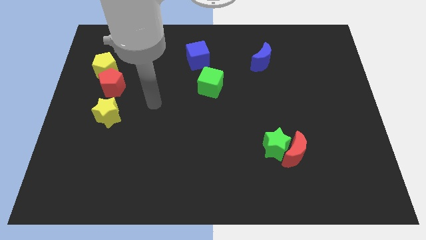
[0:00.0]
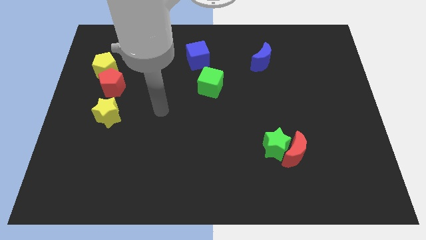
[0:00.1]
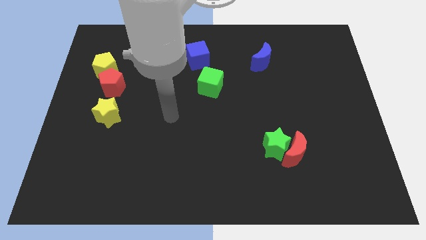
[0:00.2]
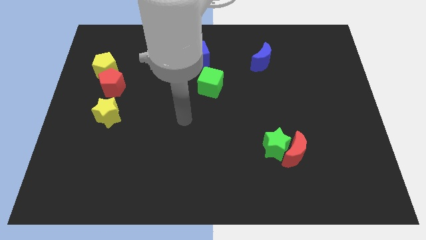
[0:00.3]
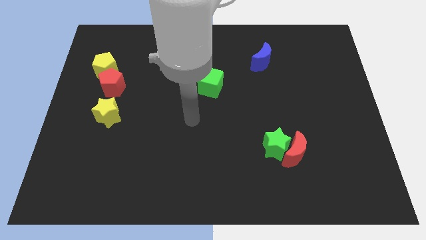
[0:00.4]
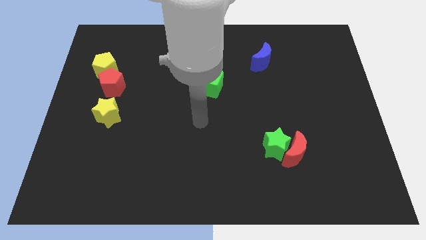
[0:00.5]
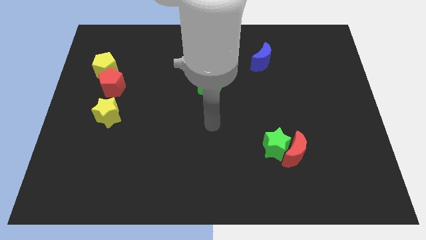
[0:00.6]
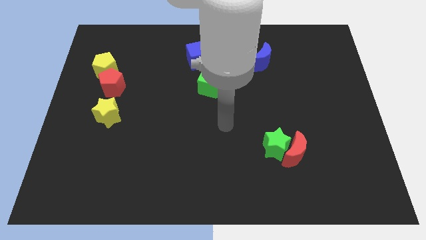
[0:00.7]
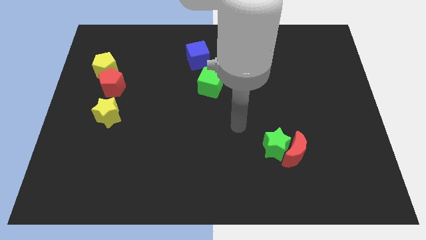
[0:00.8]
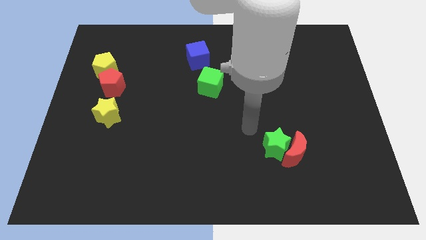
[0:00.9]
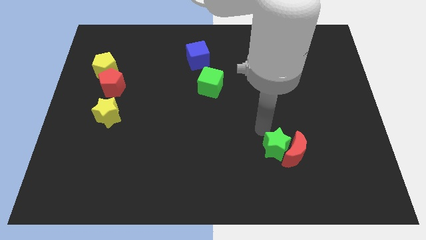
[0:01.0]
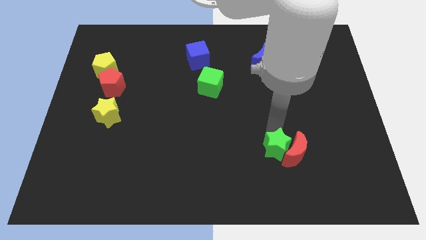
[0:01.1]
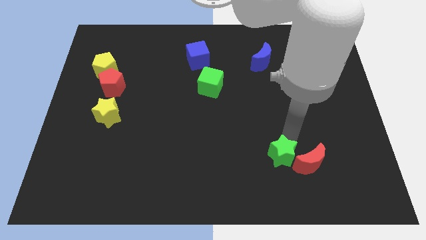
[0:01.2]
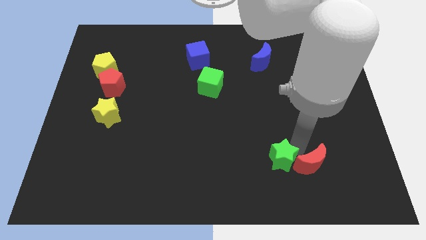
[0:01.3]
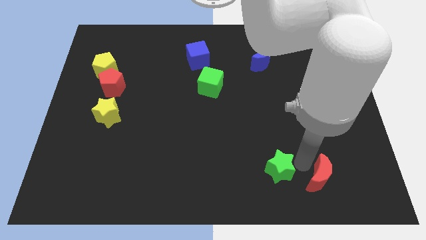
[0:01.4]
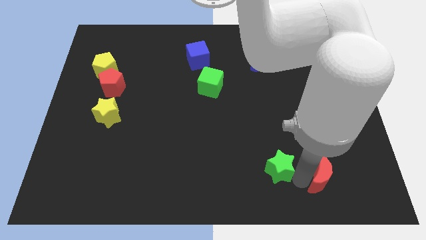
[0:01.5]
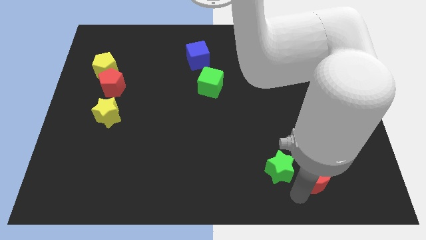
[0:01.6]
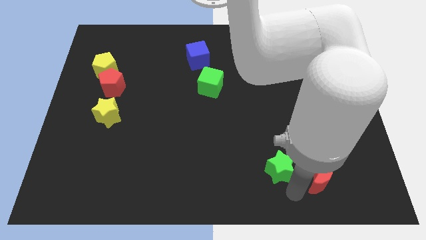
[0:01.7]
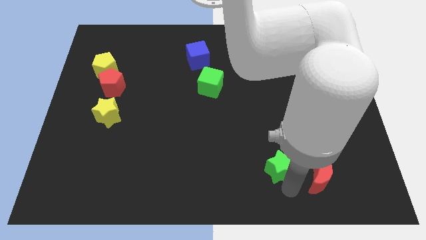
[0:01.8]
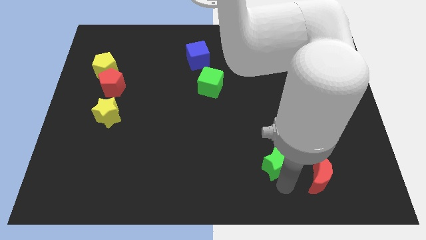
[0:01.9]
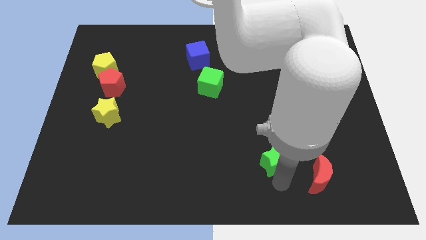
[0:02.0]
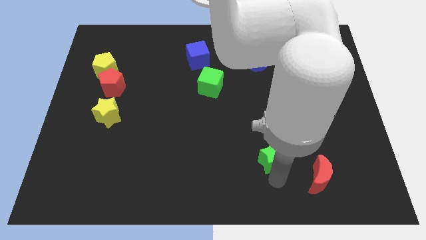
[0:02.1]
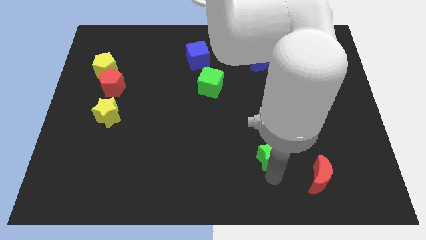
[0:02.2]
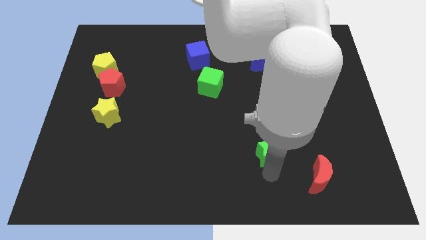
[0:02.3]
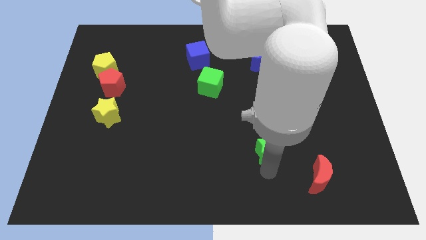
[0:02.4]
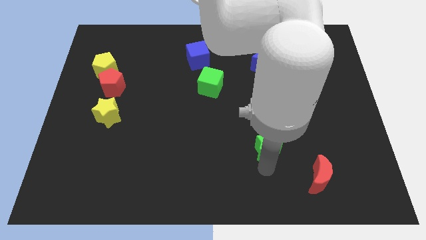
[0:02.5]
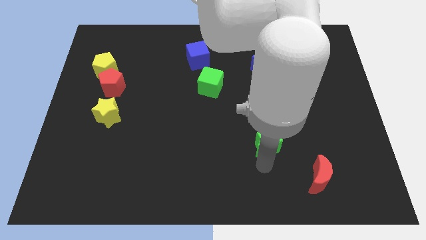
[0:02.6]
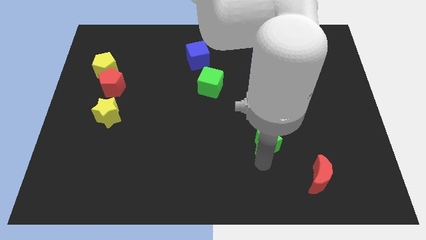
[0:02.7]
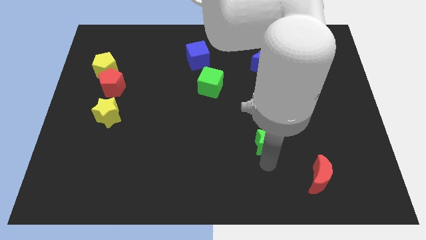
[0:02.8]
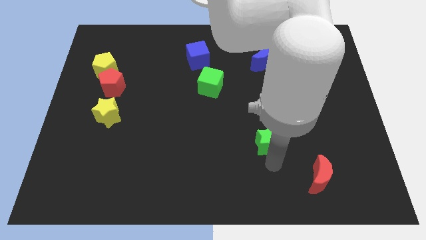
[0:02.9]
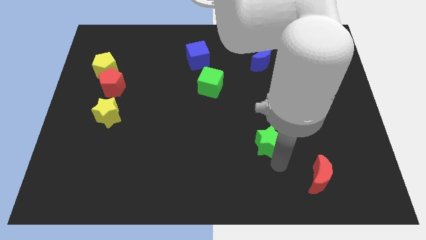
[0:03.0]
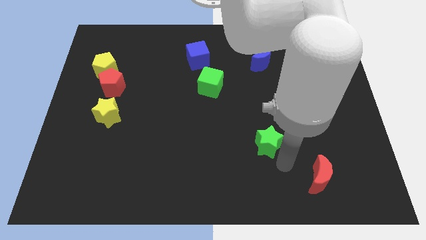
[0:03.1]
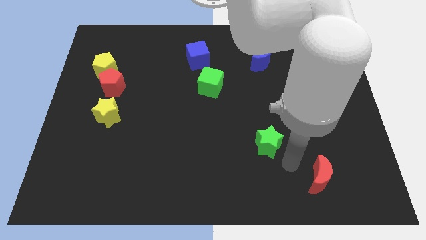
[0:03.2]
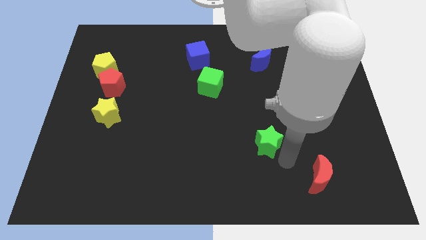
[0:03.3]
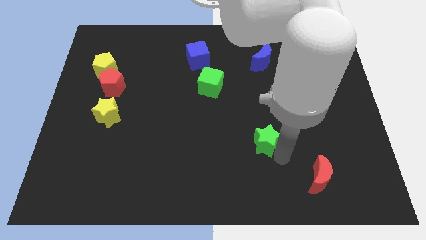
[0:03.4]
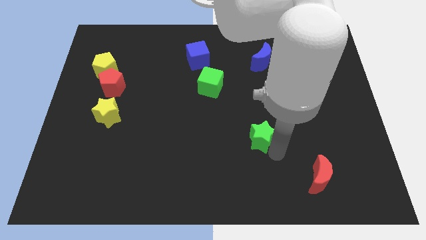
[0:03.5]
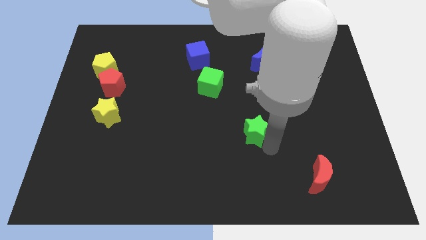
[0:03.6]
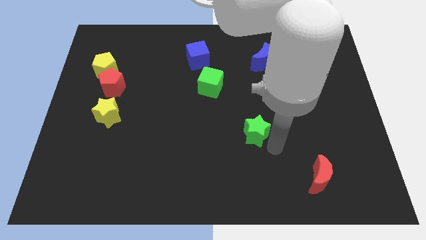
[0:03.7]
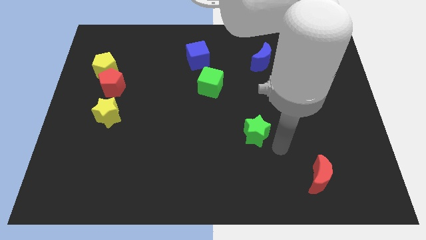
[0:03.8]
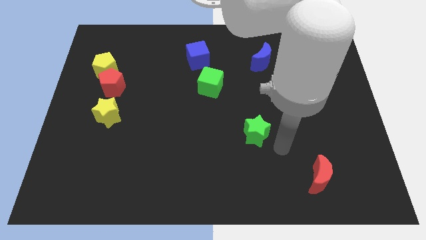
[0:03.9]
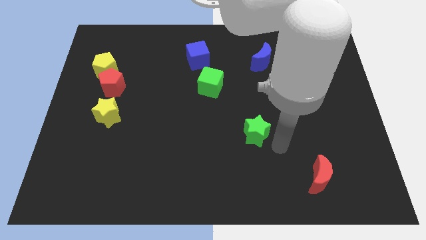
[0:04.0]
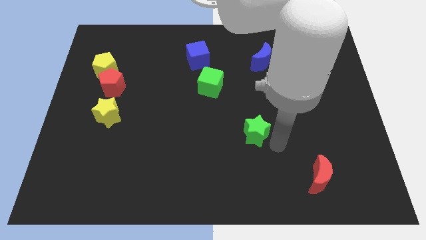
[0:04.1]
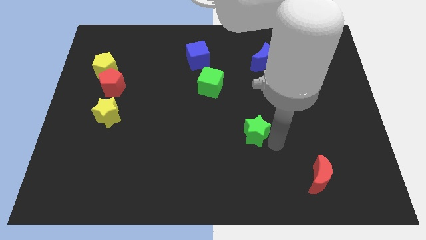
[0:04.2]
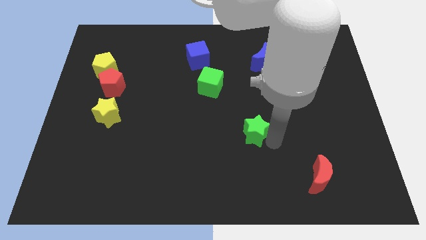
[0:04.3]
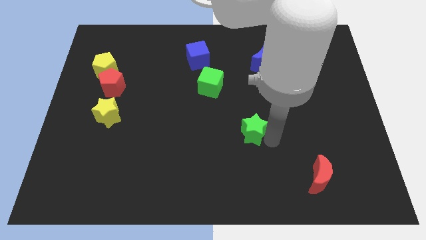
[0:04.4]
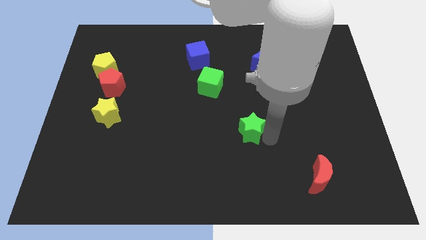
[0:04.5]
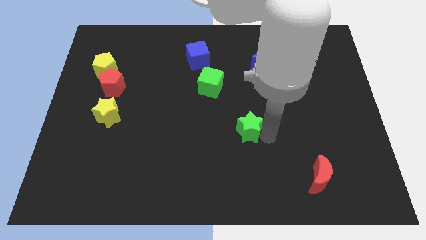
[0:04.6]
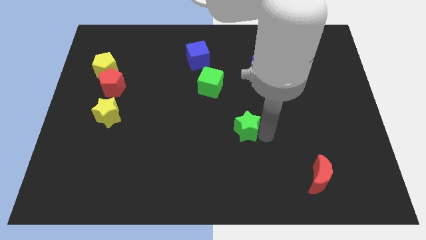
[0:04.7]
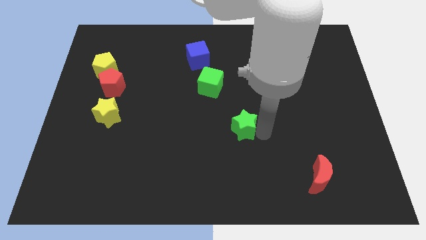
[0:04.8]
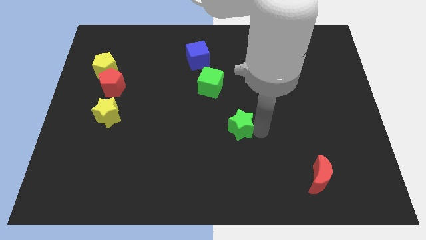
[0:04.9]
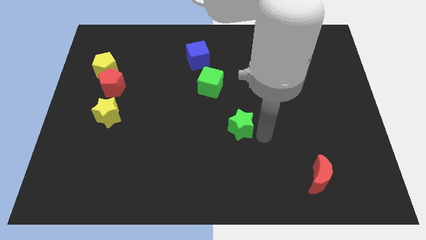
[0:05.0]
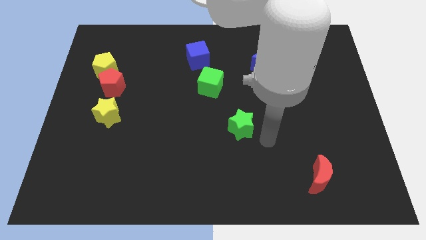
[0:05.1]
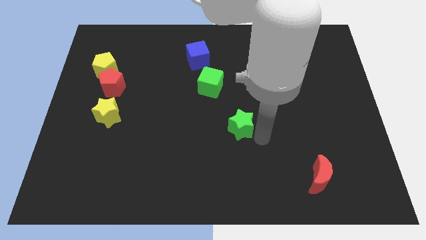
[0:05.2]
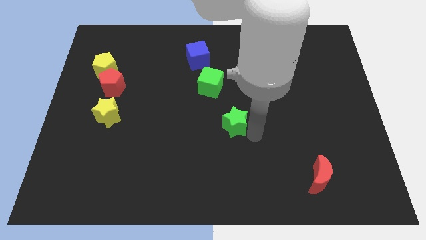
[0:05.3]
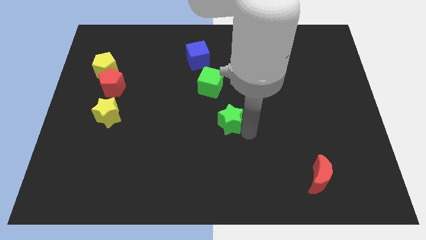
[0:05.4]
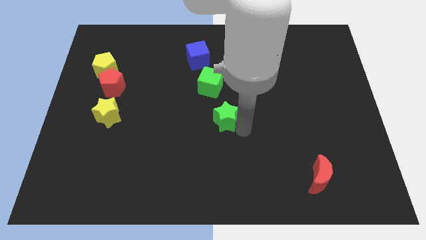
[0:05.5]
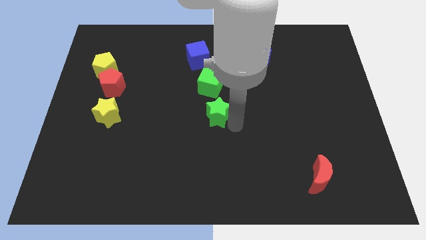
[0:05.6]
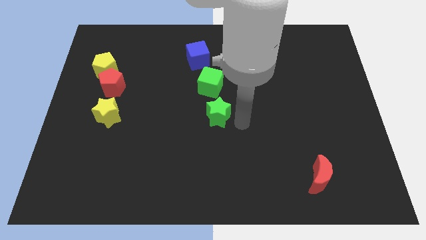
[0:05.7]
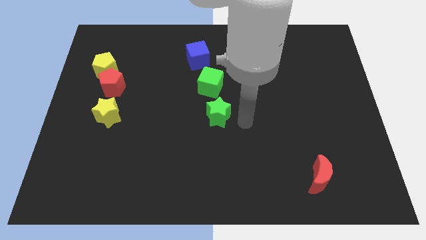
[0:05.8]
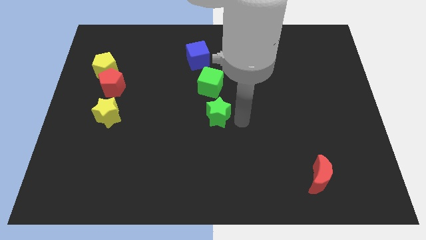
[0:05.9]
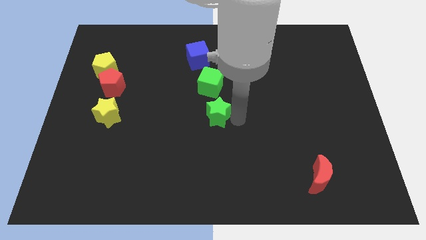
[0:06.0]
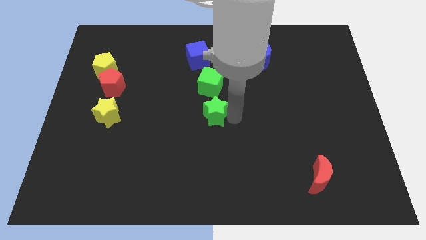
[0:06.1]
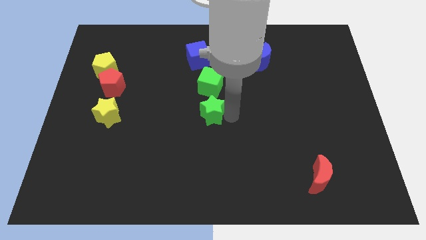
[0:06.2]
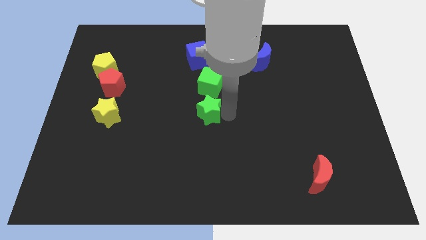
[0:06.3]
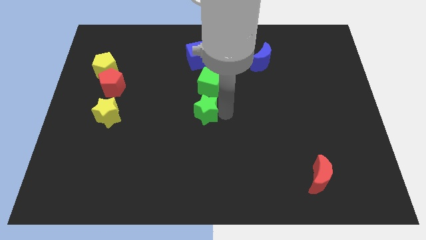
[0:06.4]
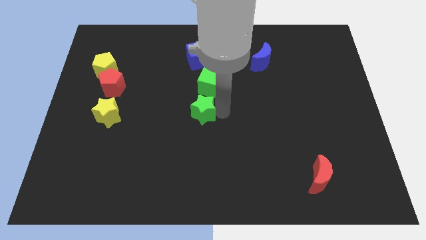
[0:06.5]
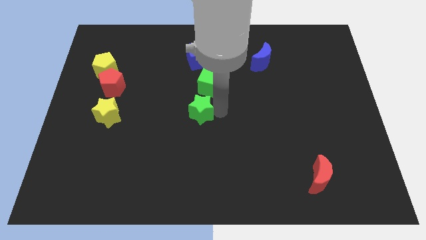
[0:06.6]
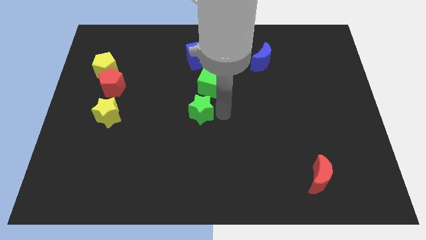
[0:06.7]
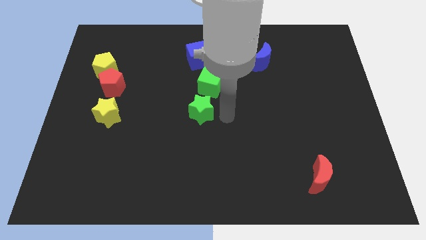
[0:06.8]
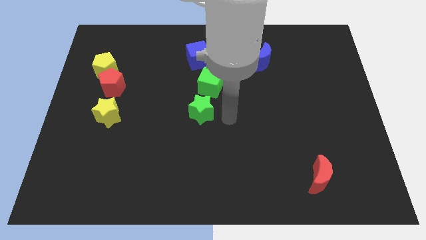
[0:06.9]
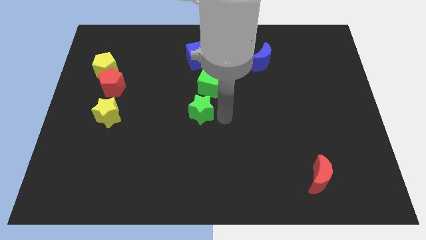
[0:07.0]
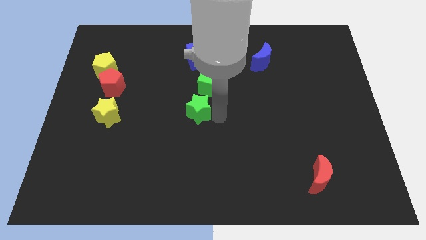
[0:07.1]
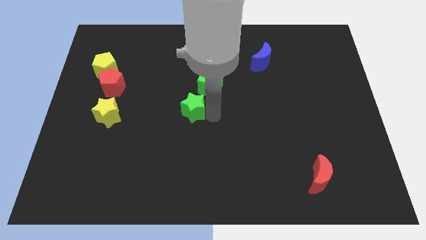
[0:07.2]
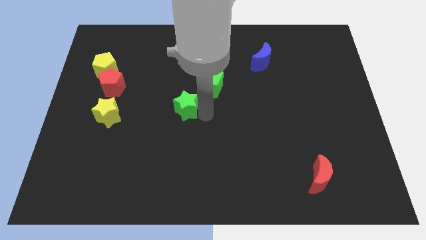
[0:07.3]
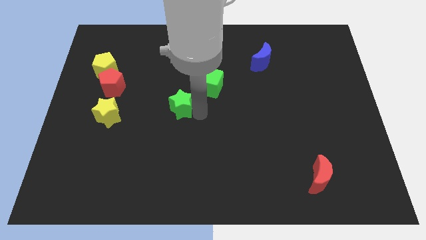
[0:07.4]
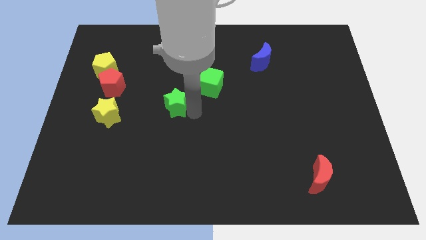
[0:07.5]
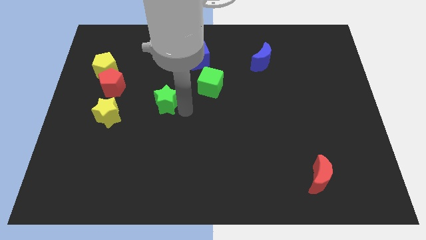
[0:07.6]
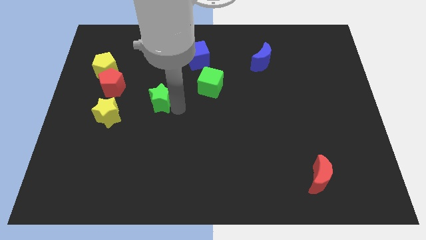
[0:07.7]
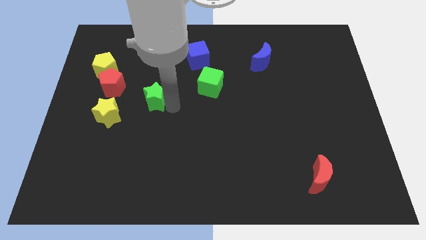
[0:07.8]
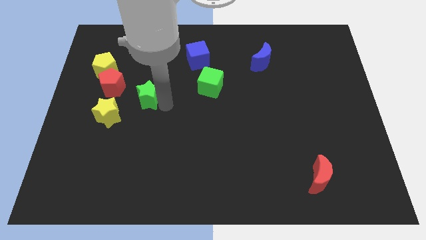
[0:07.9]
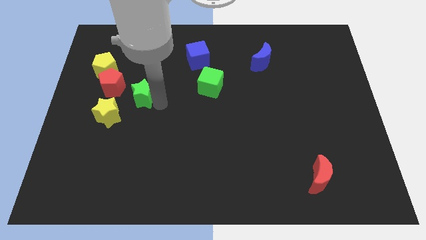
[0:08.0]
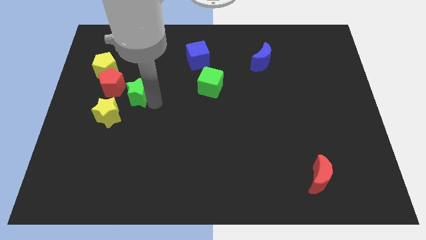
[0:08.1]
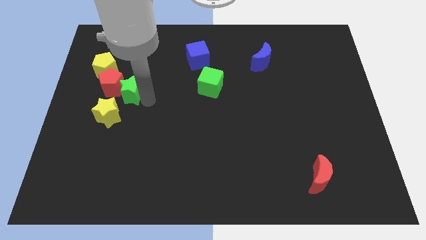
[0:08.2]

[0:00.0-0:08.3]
slide the green star towards the red pentagon
